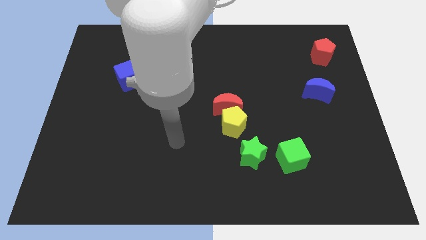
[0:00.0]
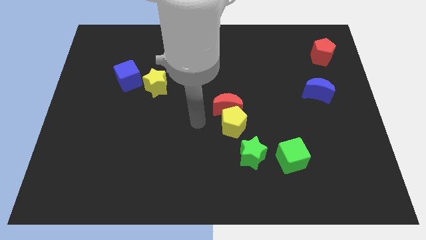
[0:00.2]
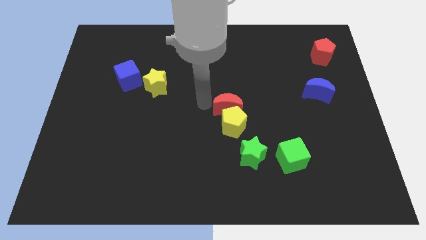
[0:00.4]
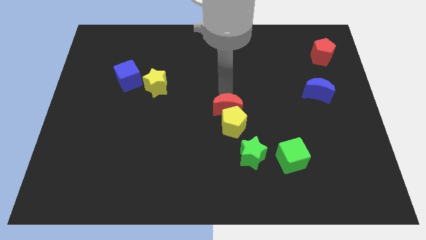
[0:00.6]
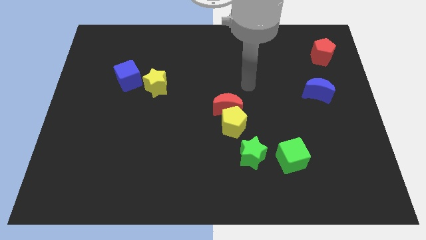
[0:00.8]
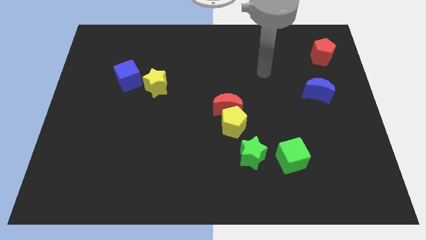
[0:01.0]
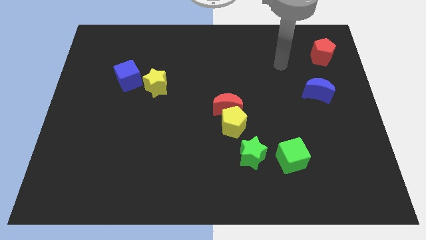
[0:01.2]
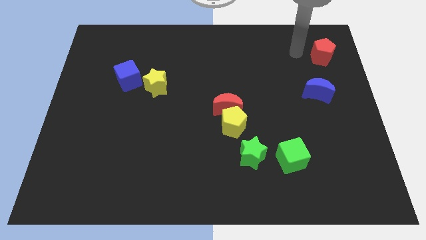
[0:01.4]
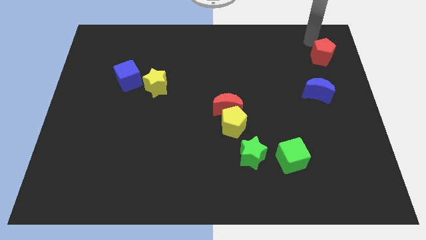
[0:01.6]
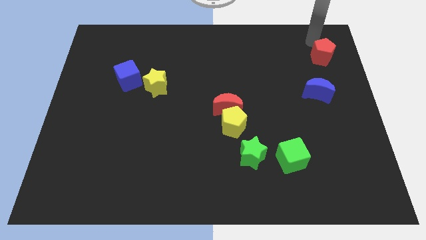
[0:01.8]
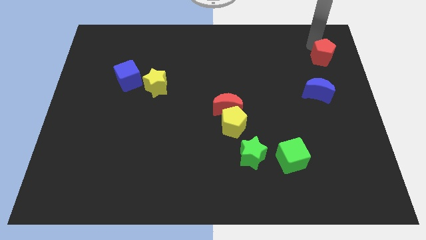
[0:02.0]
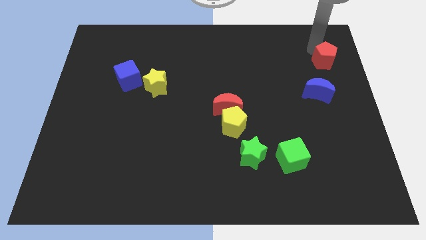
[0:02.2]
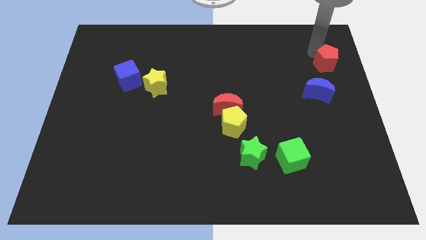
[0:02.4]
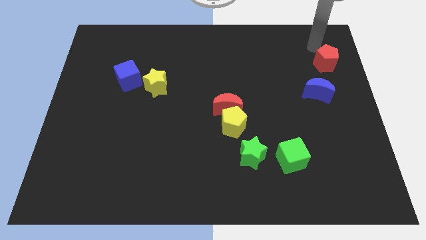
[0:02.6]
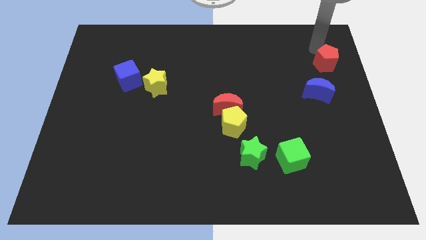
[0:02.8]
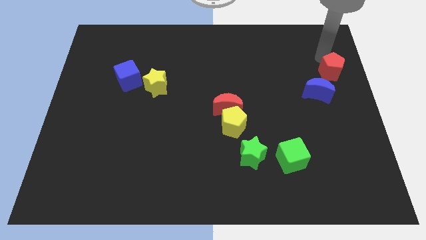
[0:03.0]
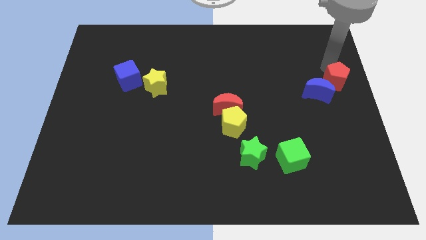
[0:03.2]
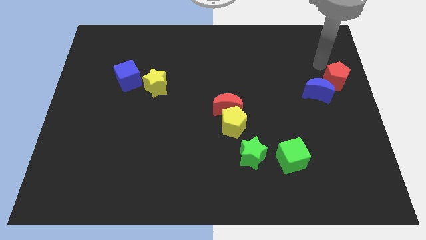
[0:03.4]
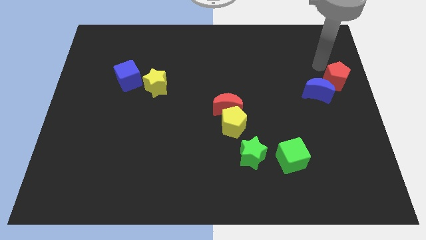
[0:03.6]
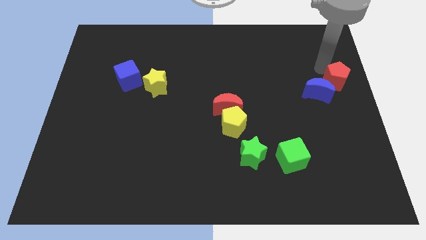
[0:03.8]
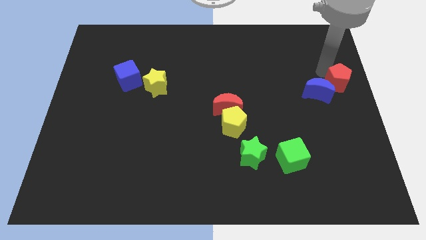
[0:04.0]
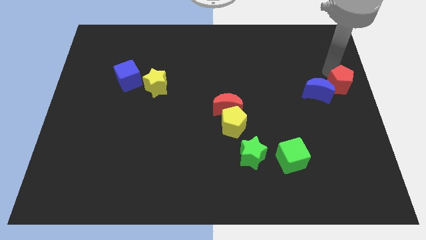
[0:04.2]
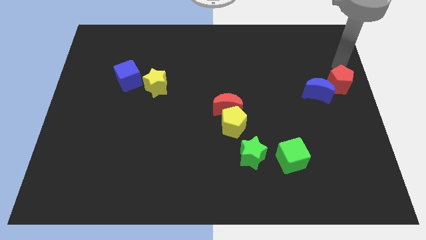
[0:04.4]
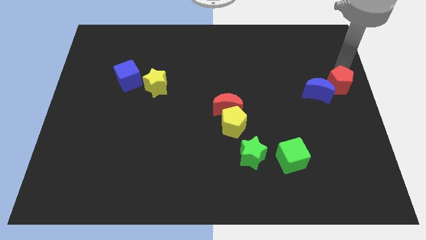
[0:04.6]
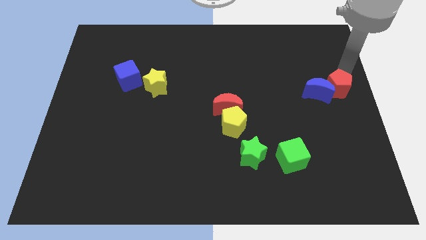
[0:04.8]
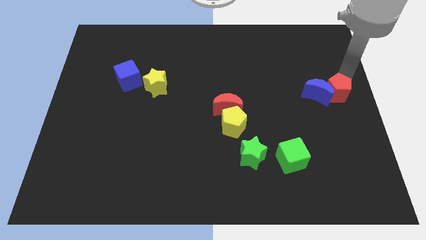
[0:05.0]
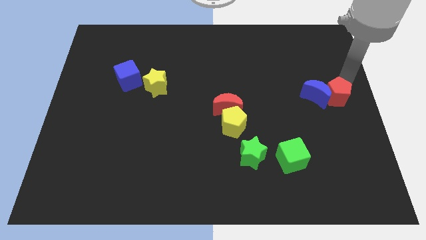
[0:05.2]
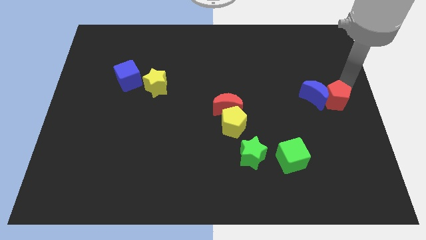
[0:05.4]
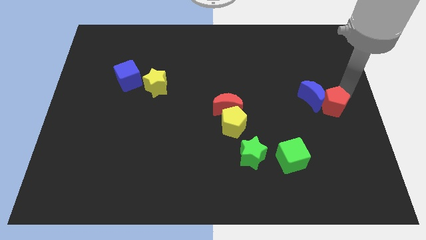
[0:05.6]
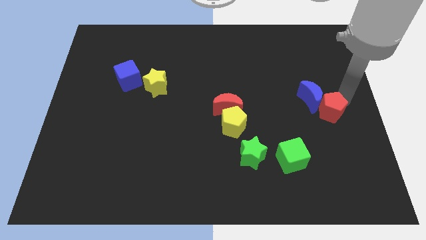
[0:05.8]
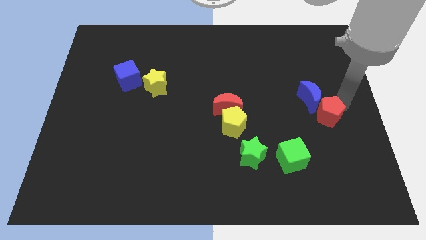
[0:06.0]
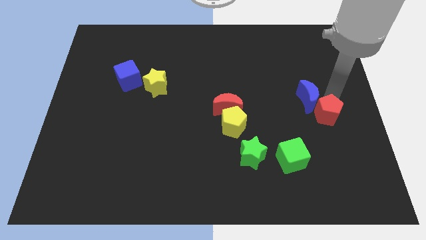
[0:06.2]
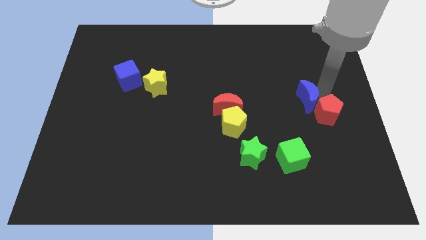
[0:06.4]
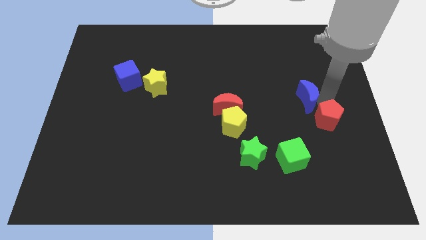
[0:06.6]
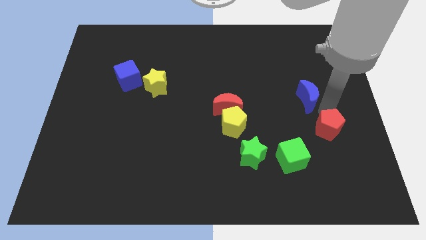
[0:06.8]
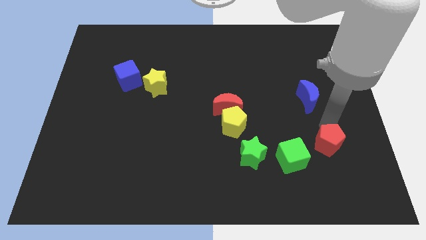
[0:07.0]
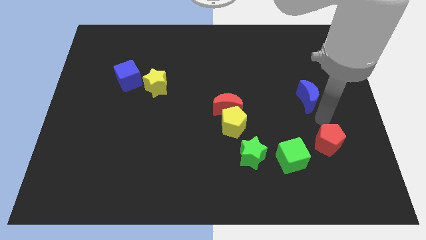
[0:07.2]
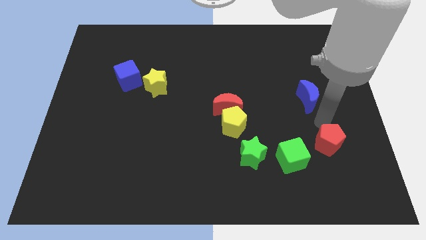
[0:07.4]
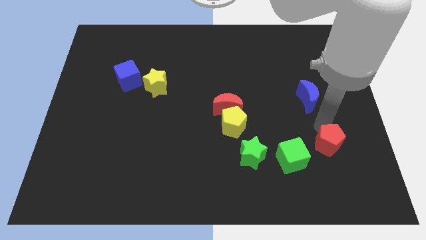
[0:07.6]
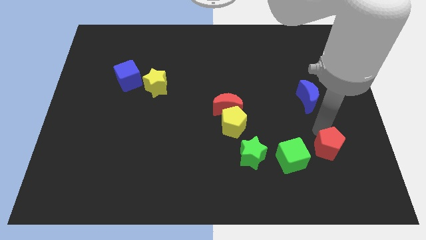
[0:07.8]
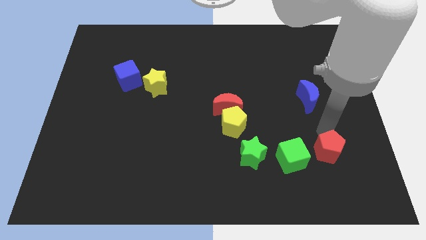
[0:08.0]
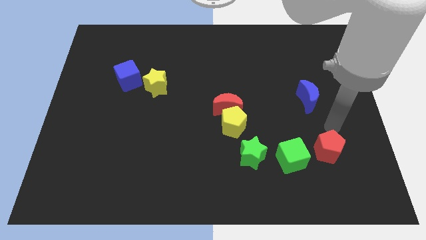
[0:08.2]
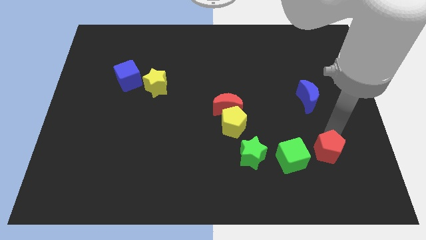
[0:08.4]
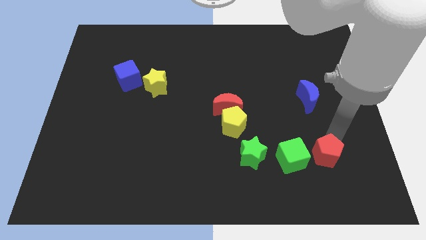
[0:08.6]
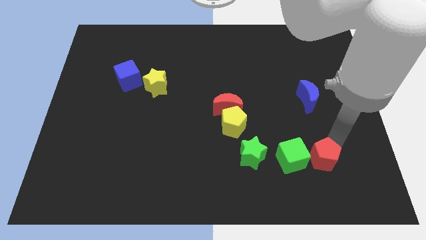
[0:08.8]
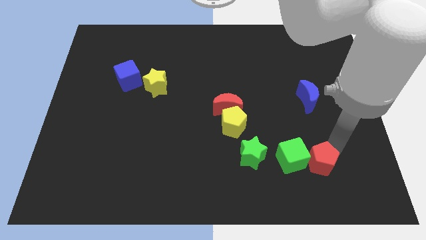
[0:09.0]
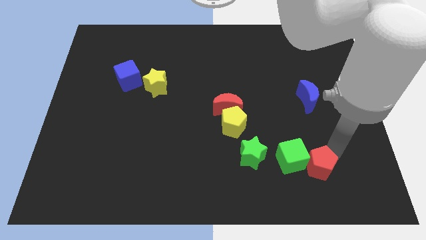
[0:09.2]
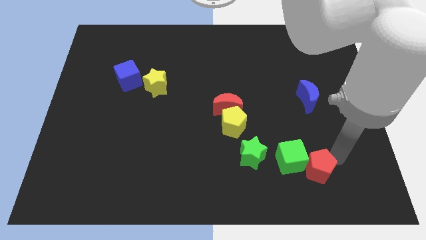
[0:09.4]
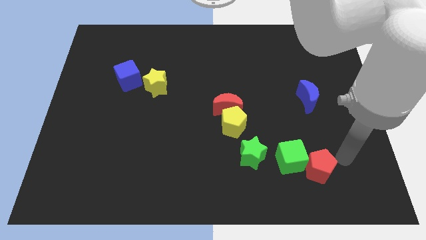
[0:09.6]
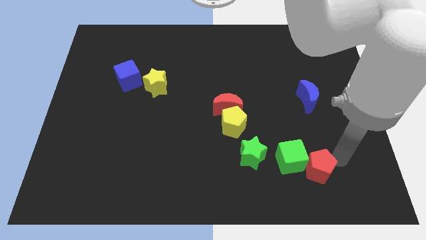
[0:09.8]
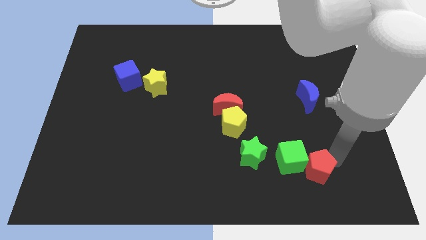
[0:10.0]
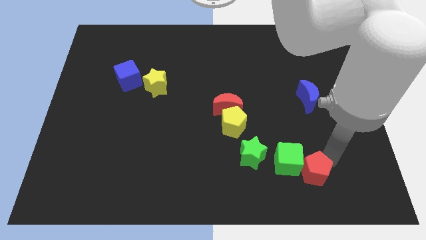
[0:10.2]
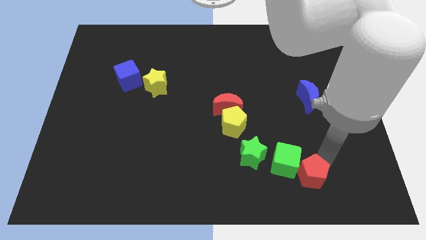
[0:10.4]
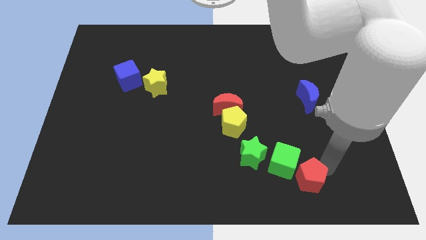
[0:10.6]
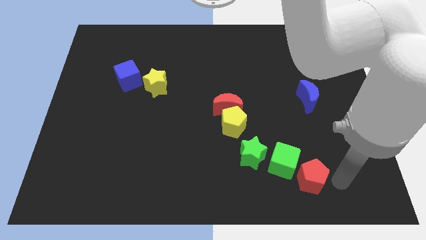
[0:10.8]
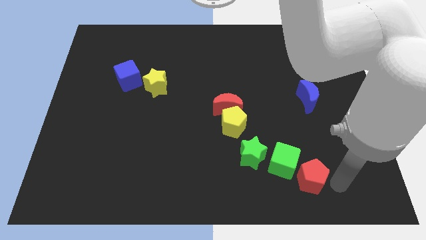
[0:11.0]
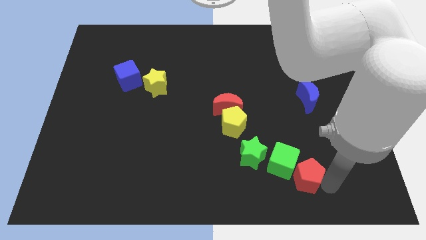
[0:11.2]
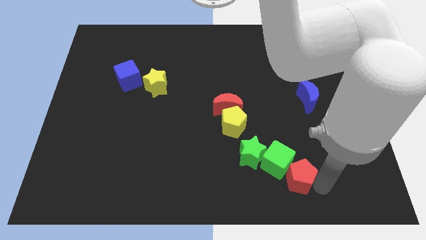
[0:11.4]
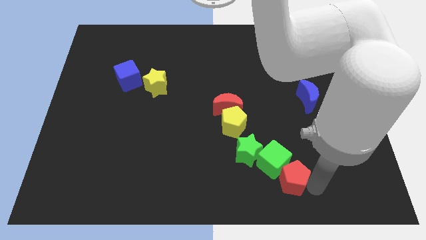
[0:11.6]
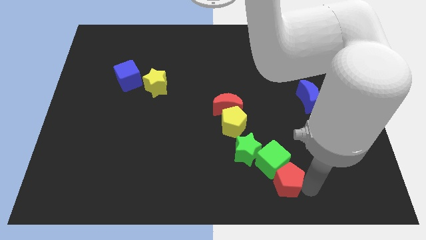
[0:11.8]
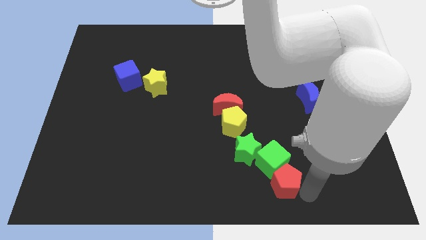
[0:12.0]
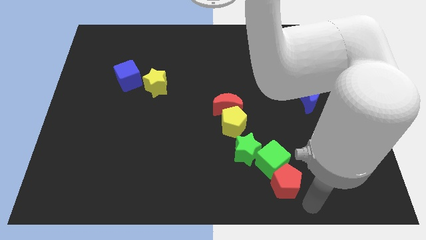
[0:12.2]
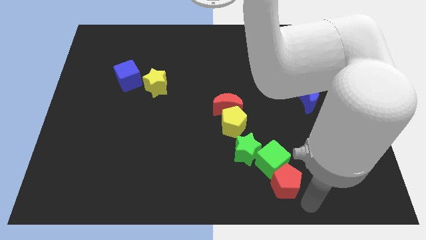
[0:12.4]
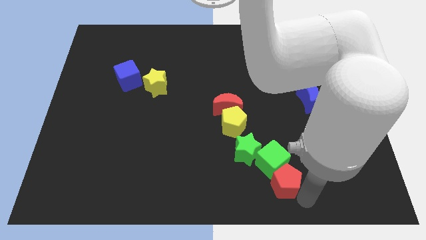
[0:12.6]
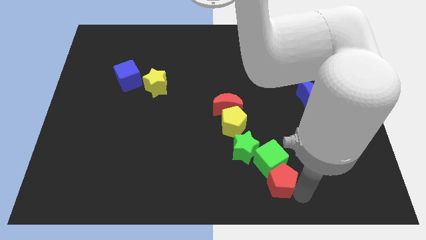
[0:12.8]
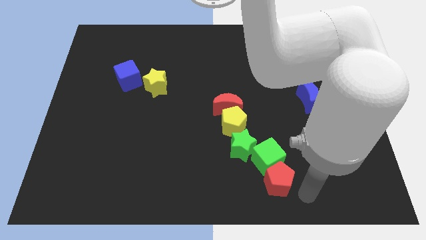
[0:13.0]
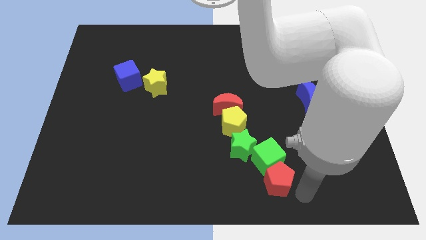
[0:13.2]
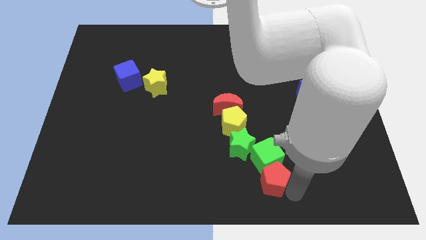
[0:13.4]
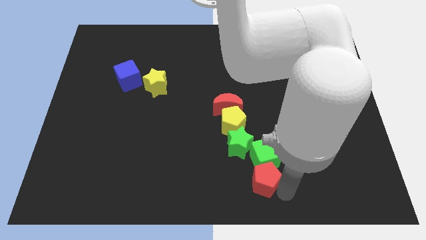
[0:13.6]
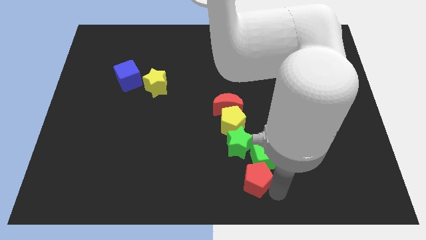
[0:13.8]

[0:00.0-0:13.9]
slide the red pentagon to the bottom of the yellow pentagon
